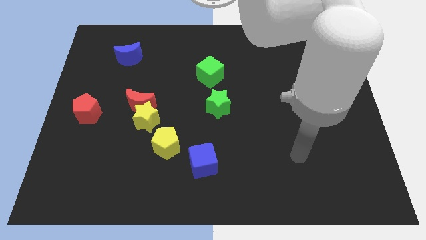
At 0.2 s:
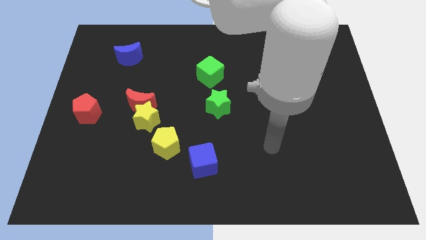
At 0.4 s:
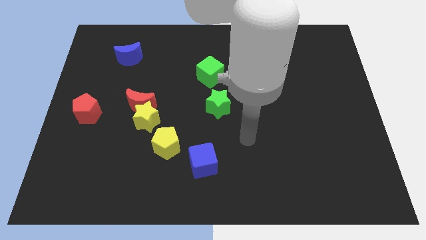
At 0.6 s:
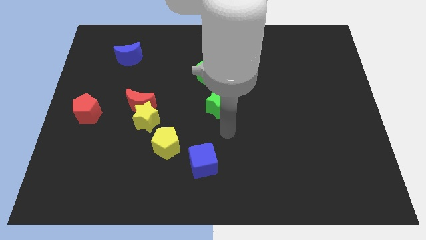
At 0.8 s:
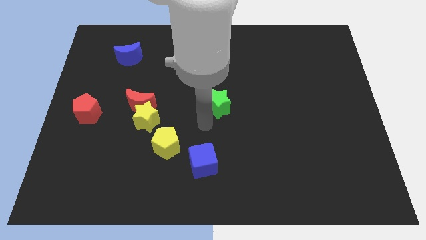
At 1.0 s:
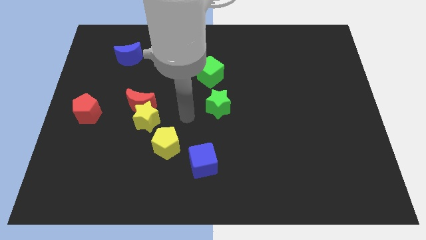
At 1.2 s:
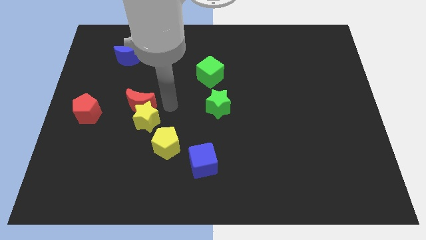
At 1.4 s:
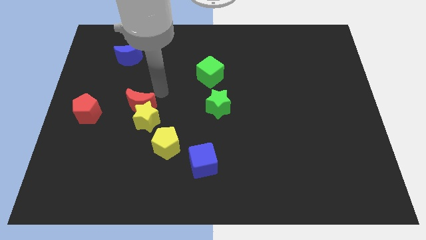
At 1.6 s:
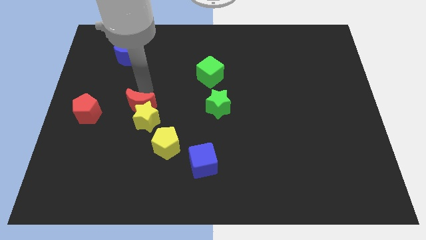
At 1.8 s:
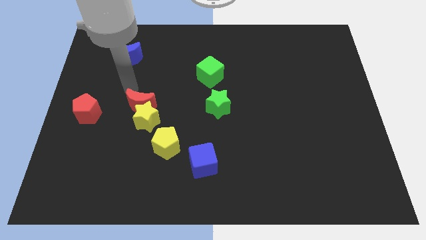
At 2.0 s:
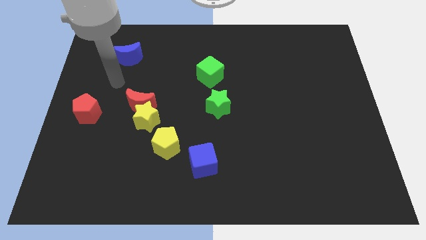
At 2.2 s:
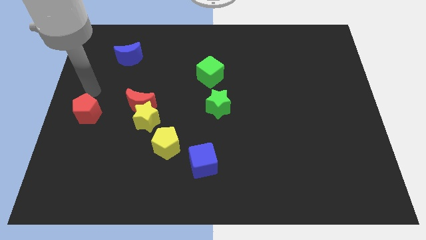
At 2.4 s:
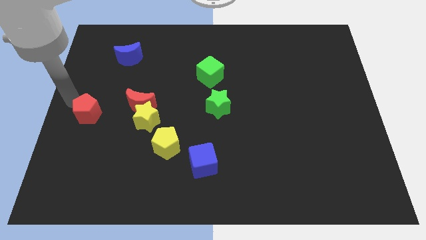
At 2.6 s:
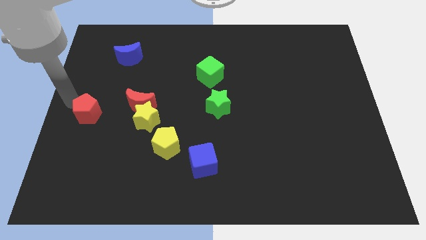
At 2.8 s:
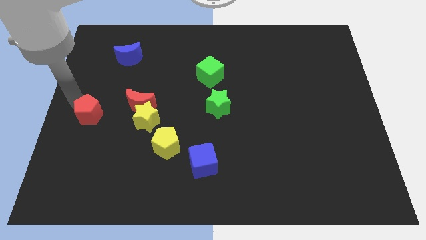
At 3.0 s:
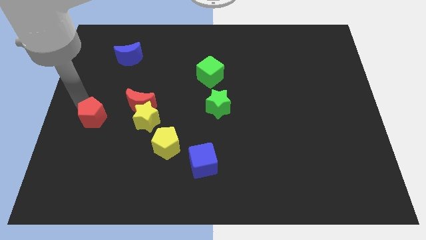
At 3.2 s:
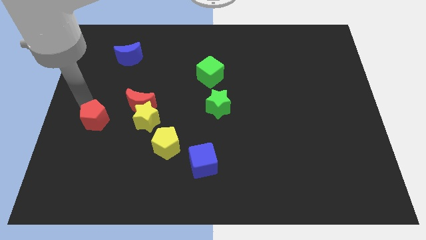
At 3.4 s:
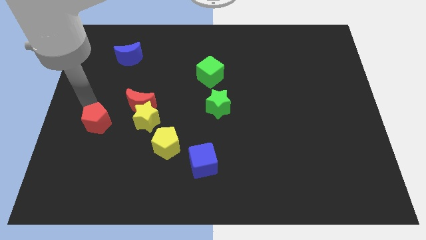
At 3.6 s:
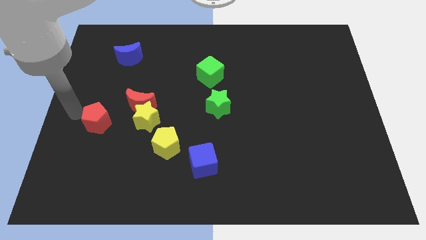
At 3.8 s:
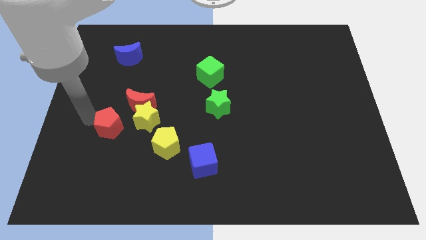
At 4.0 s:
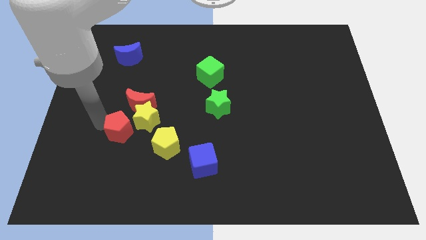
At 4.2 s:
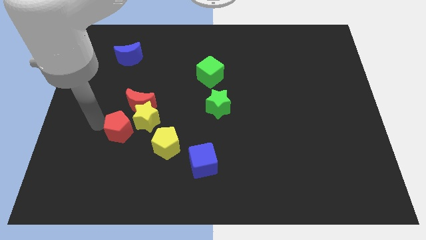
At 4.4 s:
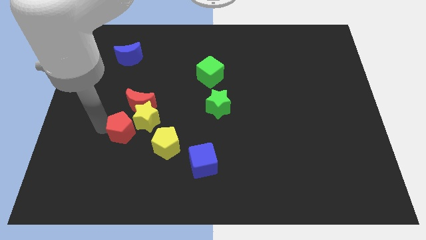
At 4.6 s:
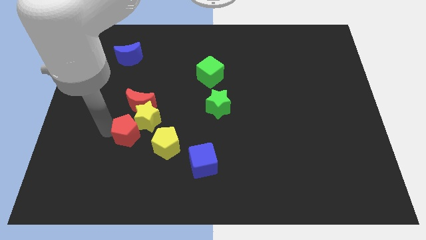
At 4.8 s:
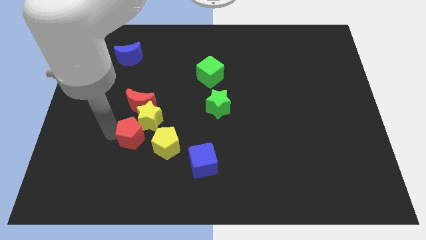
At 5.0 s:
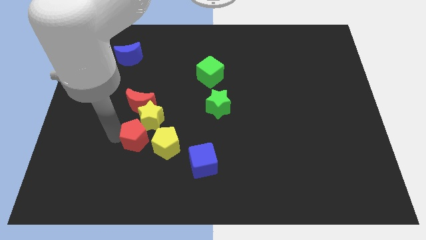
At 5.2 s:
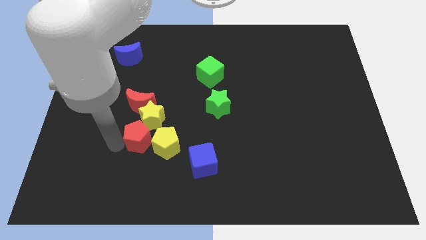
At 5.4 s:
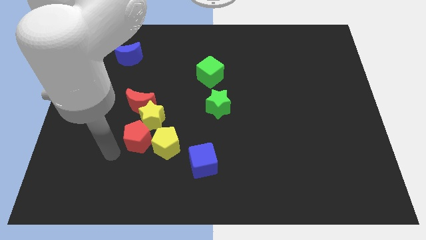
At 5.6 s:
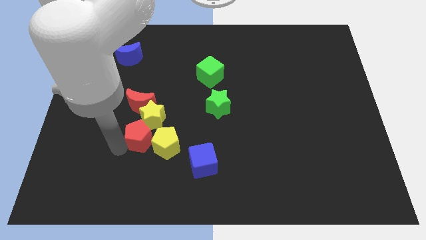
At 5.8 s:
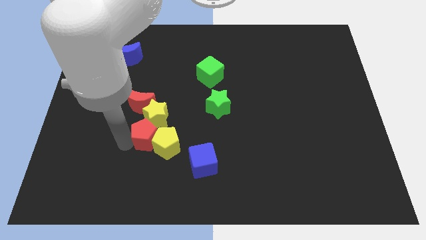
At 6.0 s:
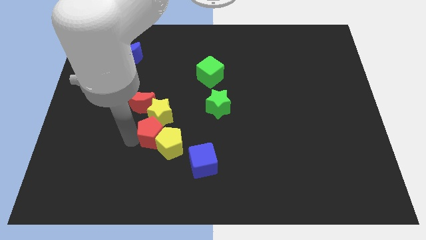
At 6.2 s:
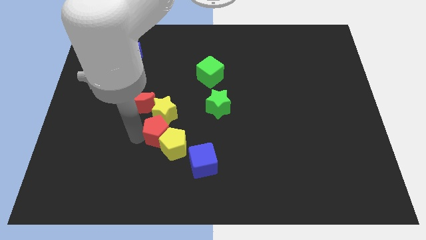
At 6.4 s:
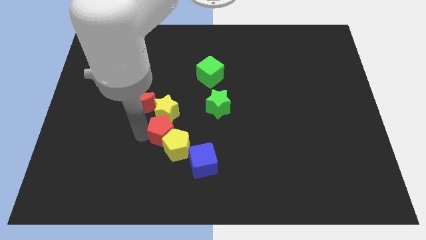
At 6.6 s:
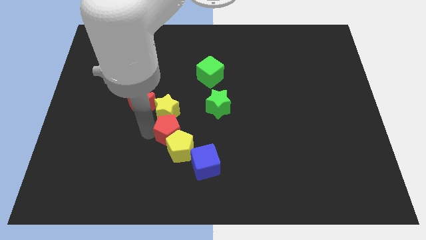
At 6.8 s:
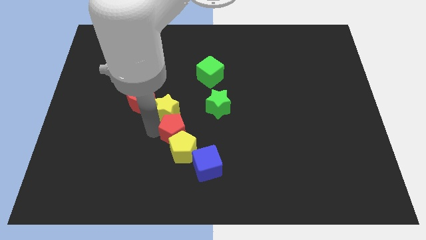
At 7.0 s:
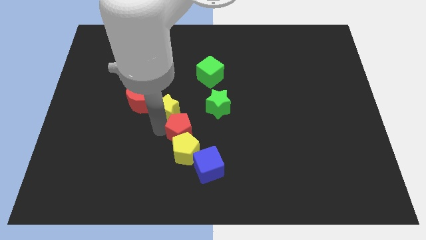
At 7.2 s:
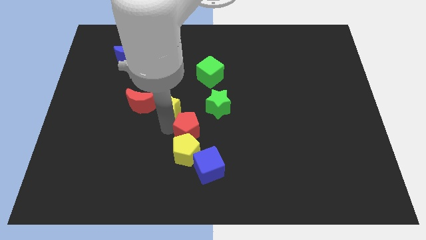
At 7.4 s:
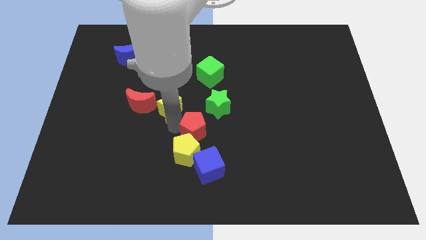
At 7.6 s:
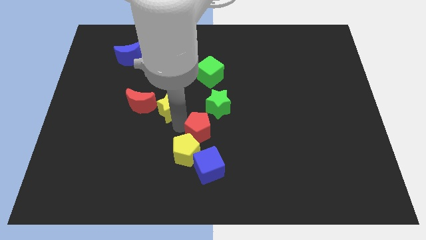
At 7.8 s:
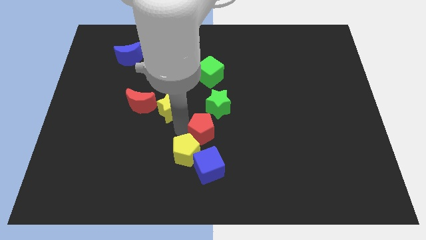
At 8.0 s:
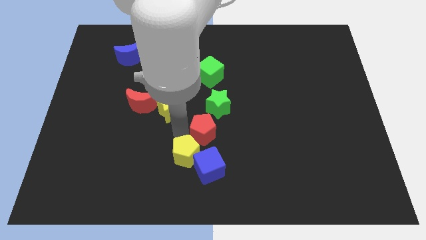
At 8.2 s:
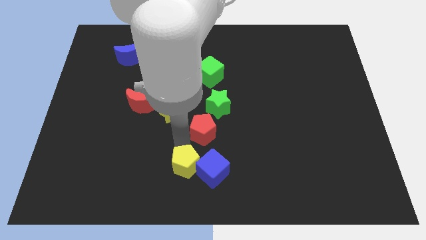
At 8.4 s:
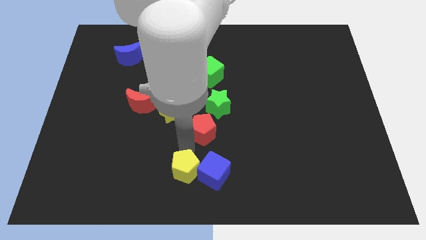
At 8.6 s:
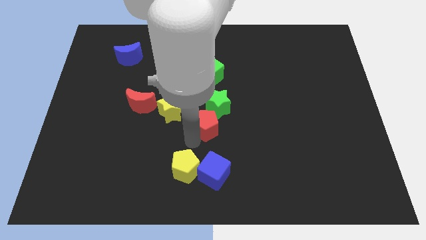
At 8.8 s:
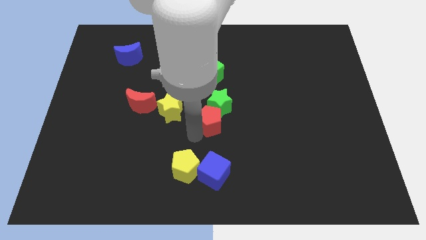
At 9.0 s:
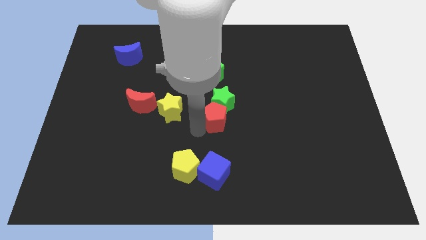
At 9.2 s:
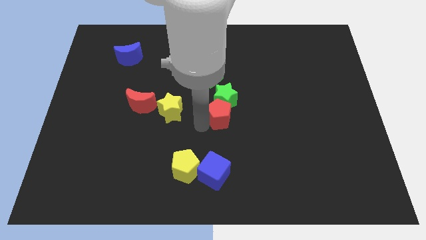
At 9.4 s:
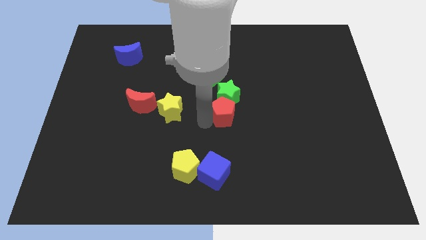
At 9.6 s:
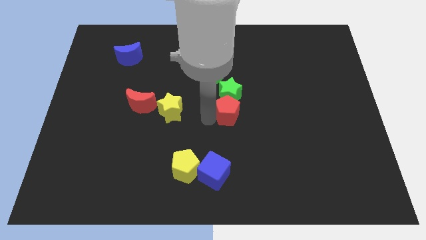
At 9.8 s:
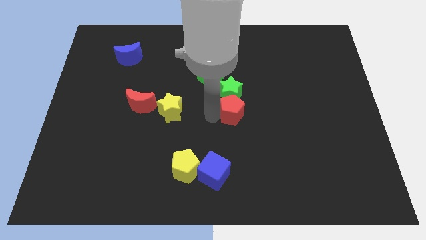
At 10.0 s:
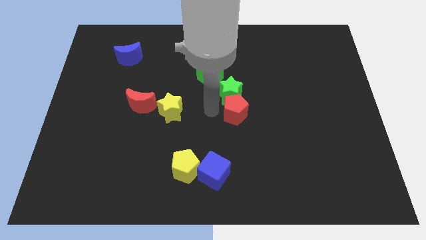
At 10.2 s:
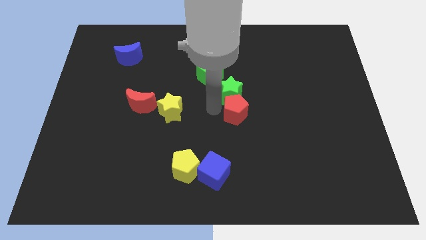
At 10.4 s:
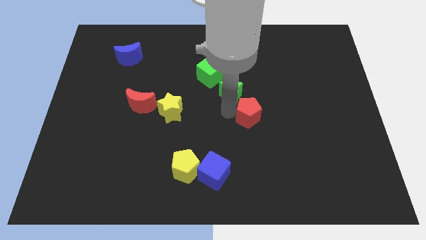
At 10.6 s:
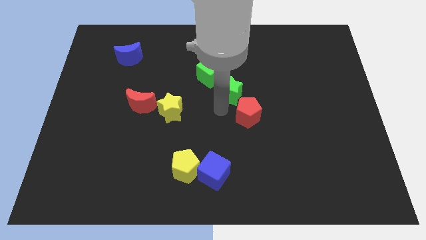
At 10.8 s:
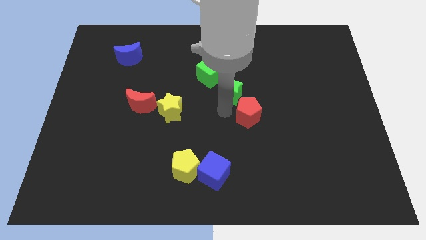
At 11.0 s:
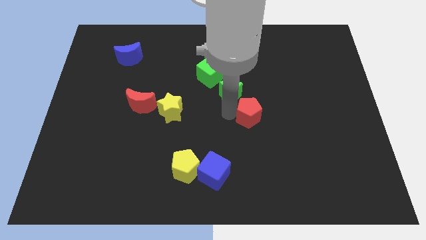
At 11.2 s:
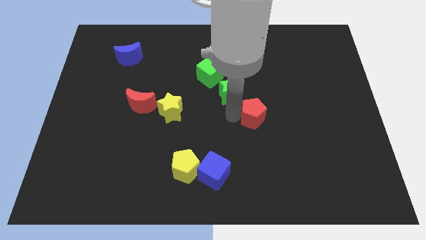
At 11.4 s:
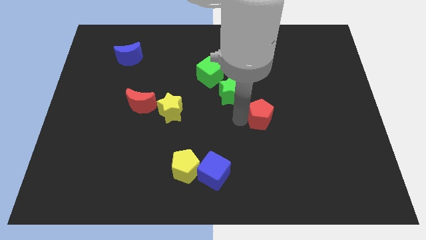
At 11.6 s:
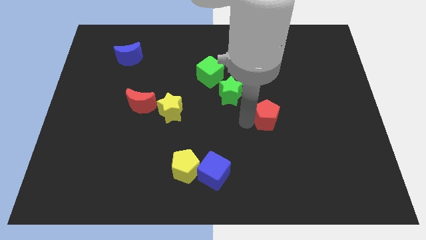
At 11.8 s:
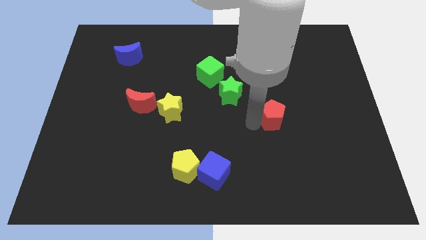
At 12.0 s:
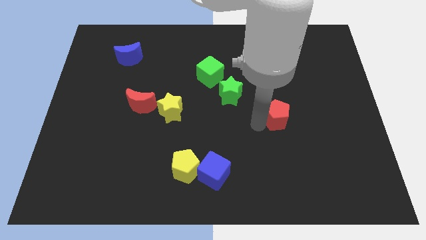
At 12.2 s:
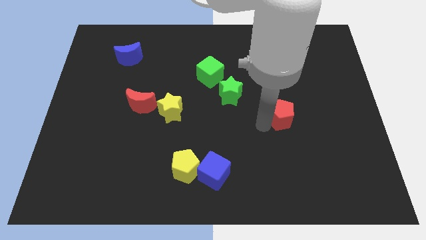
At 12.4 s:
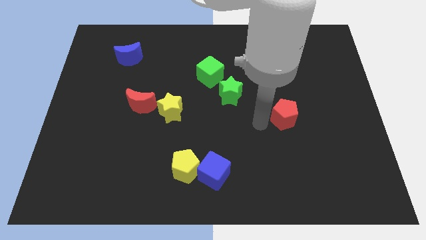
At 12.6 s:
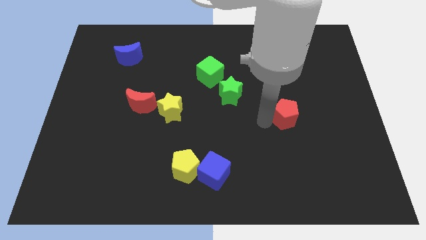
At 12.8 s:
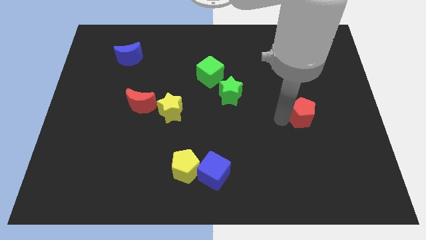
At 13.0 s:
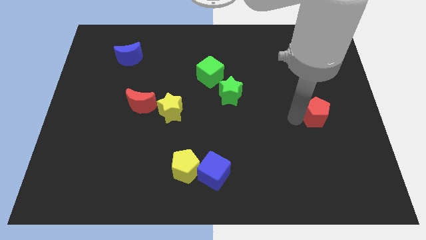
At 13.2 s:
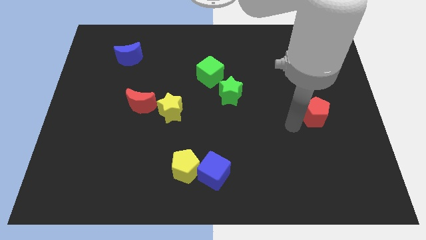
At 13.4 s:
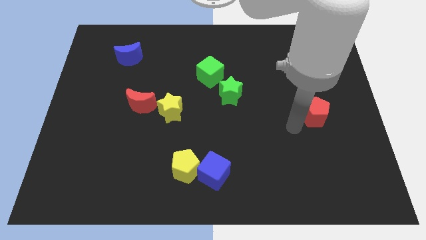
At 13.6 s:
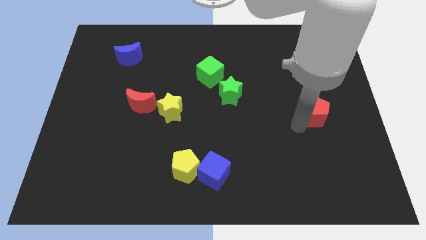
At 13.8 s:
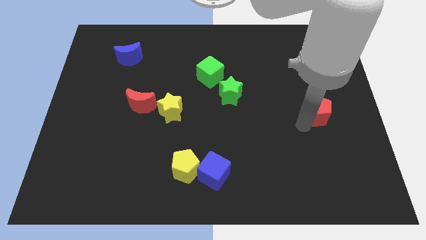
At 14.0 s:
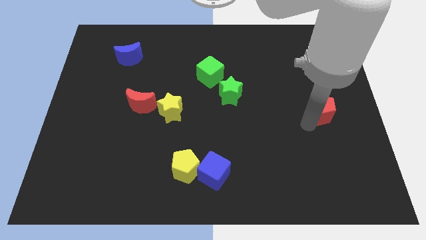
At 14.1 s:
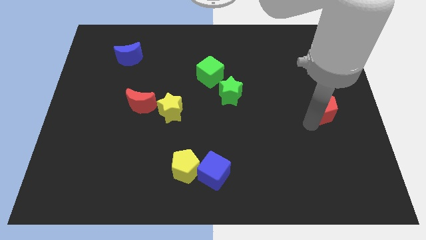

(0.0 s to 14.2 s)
put the red pentagon to the right side
